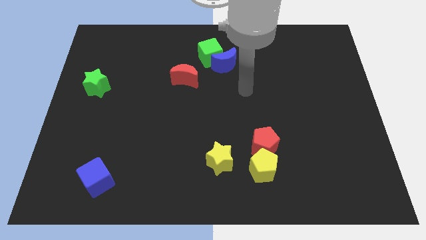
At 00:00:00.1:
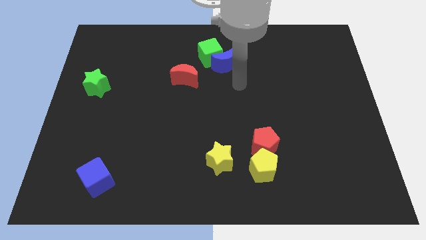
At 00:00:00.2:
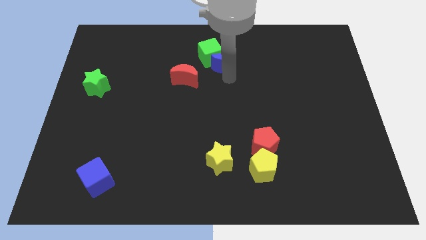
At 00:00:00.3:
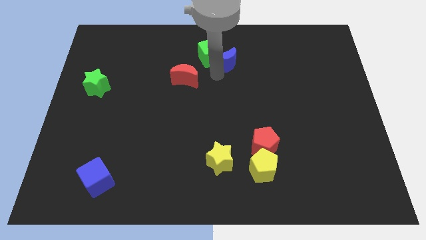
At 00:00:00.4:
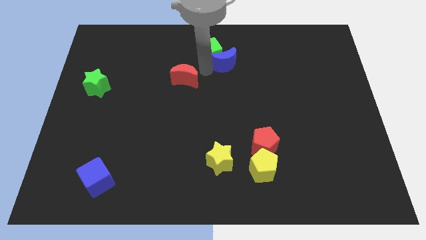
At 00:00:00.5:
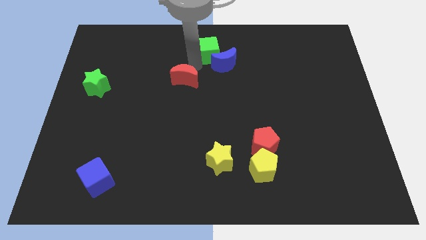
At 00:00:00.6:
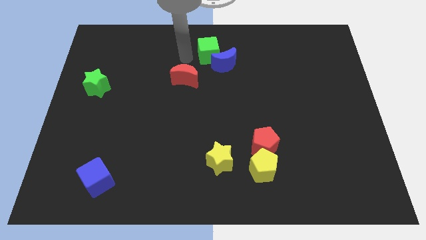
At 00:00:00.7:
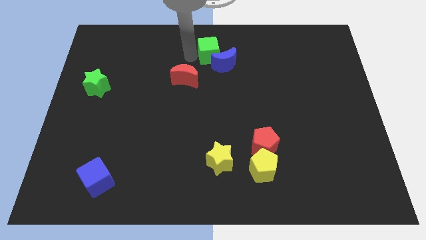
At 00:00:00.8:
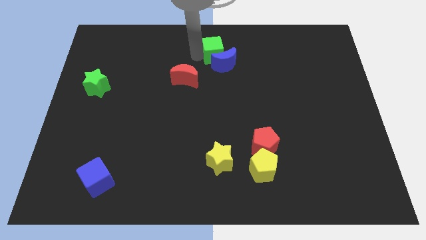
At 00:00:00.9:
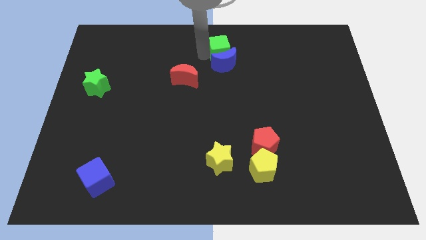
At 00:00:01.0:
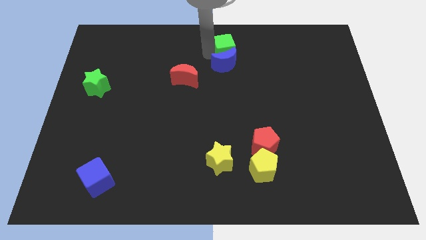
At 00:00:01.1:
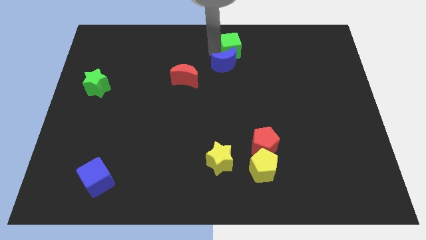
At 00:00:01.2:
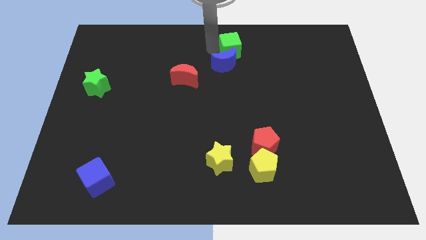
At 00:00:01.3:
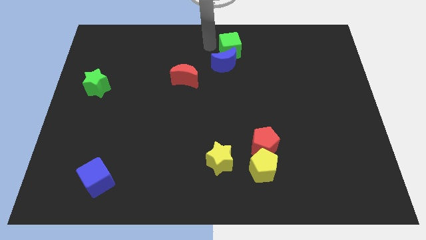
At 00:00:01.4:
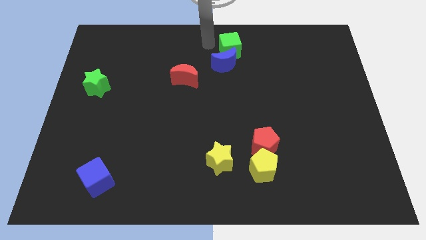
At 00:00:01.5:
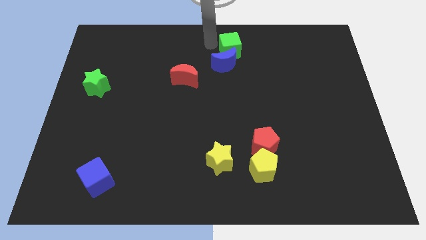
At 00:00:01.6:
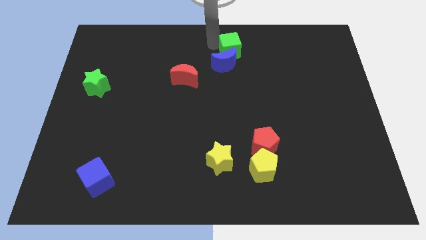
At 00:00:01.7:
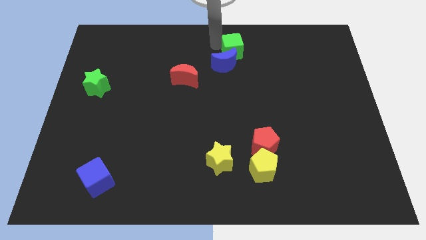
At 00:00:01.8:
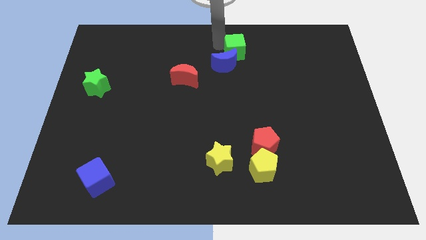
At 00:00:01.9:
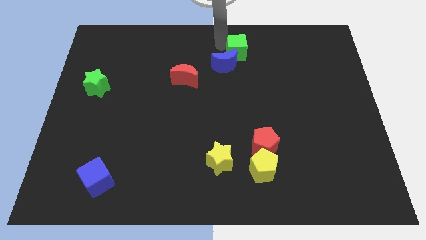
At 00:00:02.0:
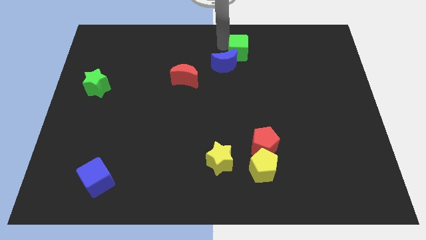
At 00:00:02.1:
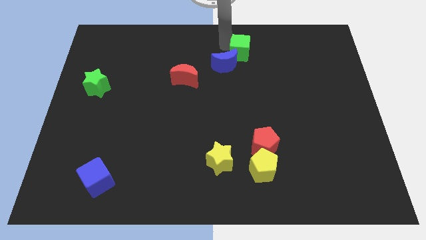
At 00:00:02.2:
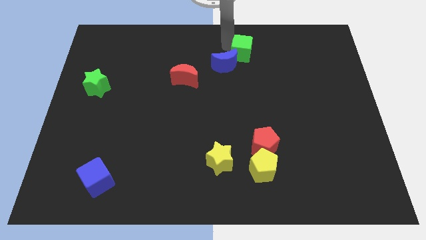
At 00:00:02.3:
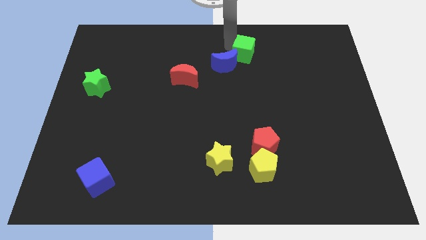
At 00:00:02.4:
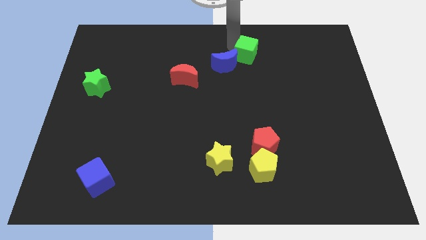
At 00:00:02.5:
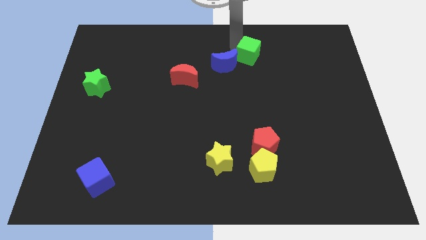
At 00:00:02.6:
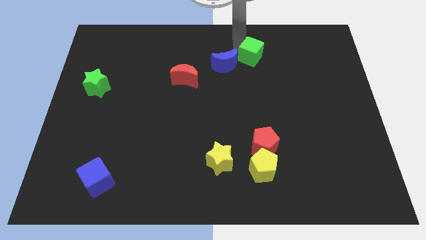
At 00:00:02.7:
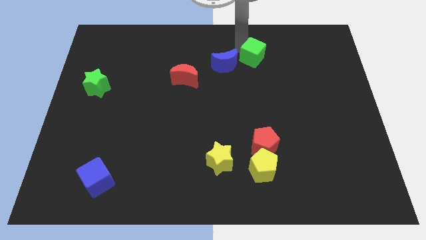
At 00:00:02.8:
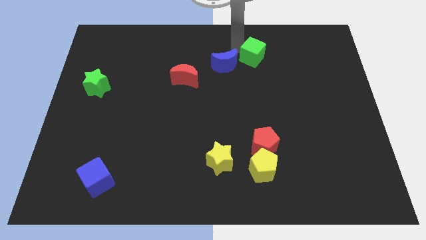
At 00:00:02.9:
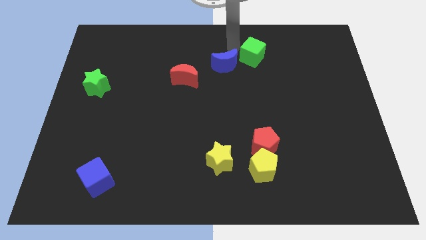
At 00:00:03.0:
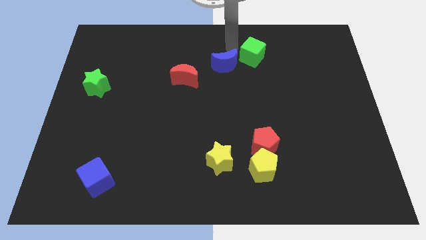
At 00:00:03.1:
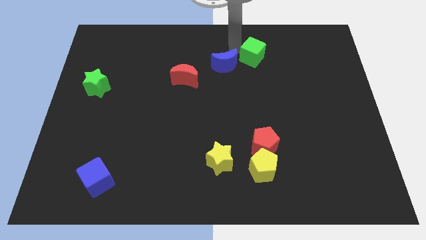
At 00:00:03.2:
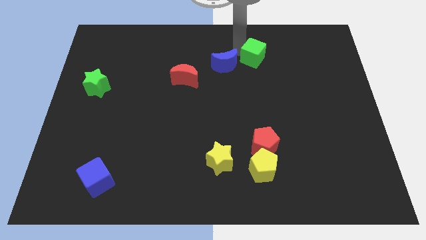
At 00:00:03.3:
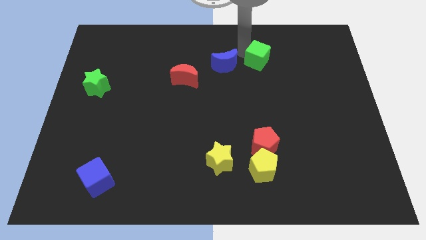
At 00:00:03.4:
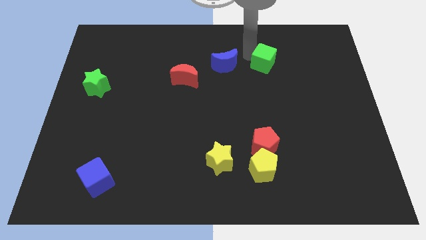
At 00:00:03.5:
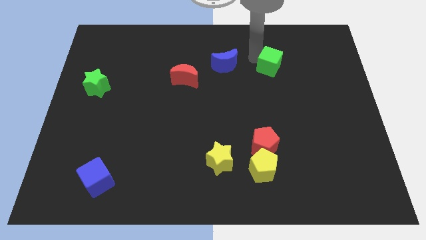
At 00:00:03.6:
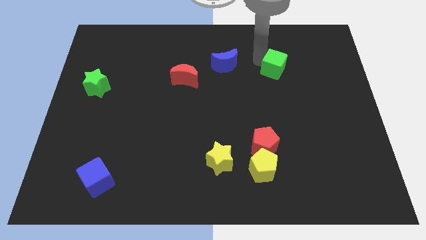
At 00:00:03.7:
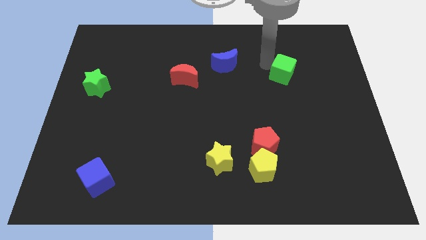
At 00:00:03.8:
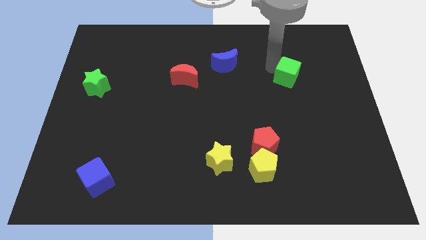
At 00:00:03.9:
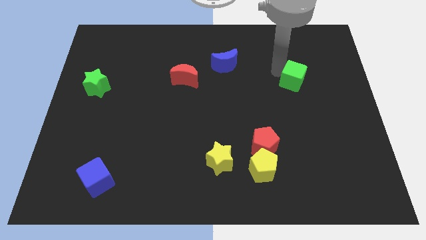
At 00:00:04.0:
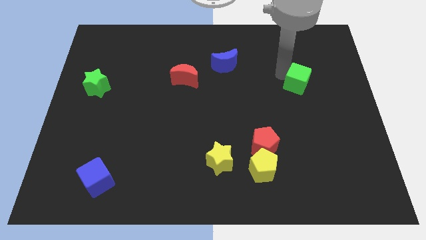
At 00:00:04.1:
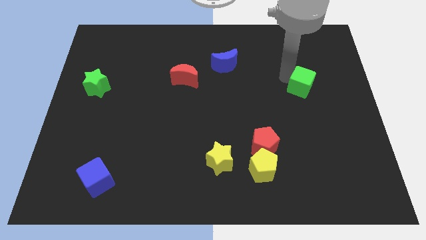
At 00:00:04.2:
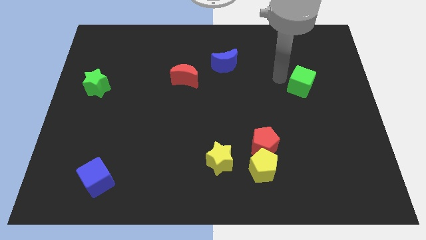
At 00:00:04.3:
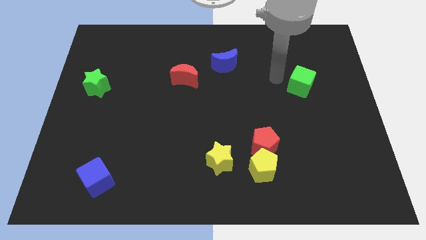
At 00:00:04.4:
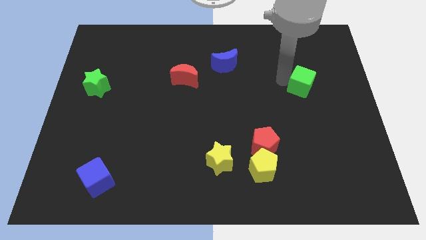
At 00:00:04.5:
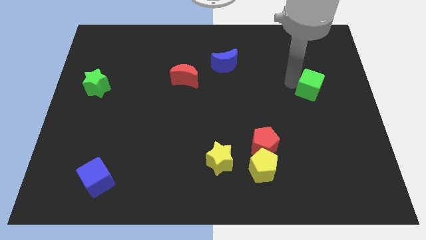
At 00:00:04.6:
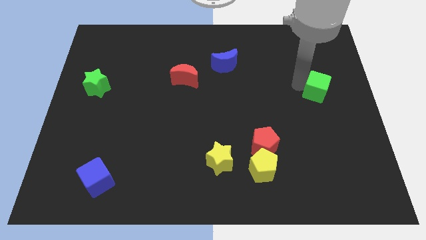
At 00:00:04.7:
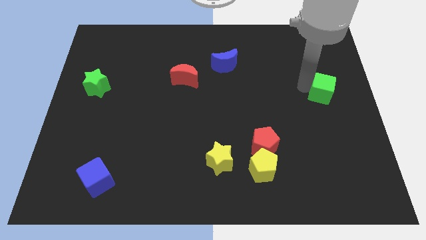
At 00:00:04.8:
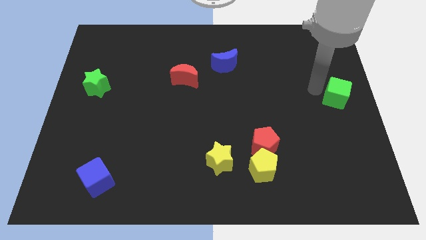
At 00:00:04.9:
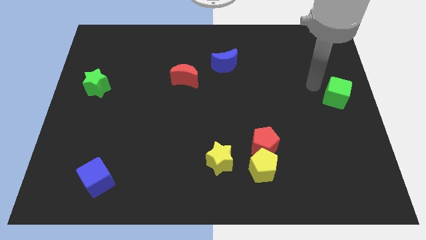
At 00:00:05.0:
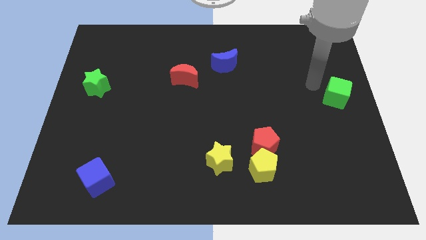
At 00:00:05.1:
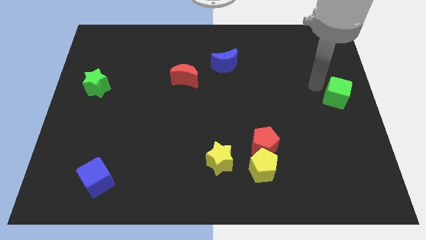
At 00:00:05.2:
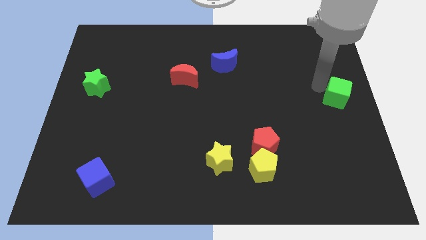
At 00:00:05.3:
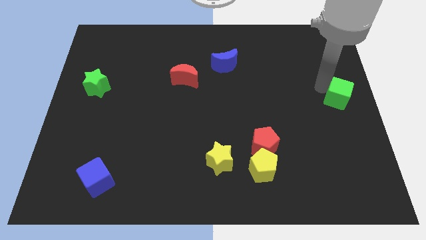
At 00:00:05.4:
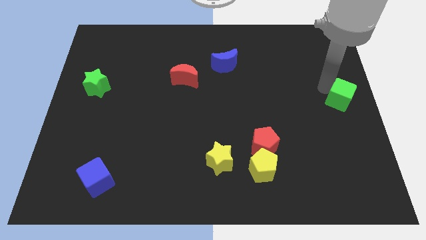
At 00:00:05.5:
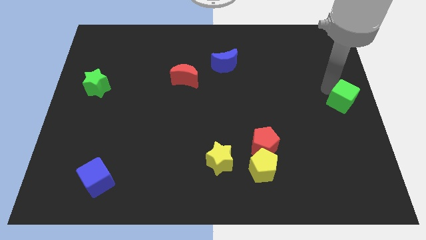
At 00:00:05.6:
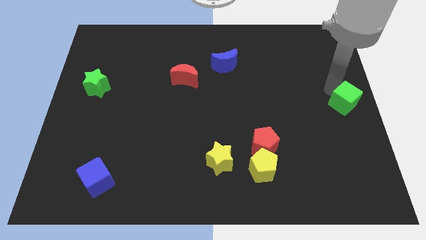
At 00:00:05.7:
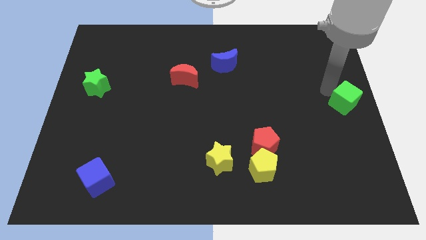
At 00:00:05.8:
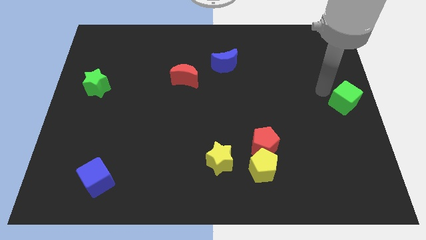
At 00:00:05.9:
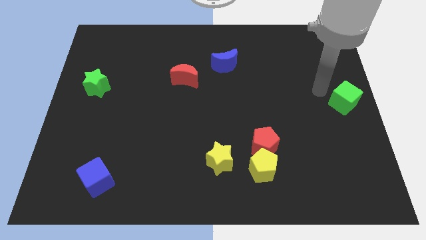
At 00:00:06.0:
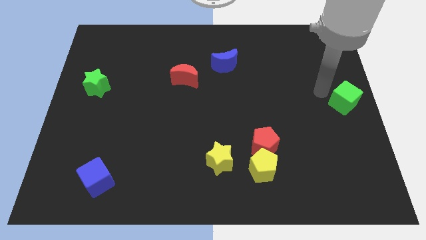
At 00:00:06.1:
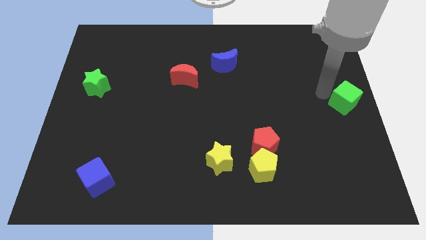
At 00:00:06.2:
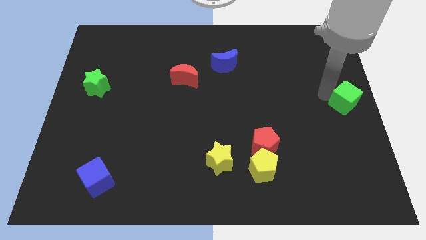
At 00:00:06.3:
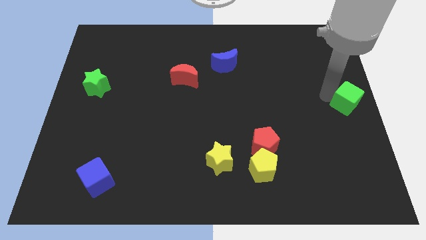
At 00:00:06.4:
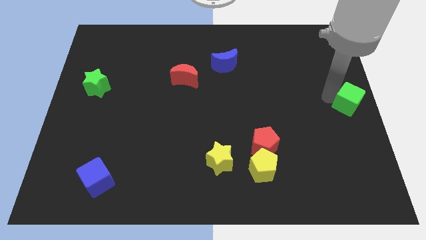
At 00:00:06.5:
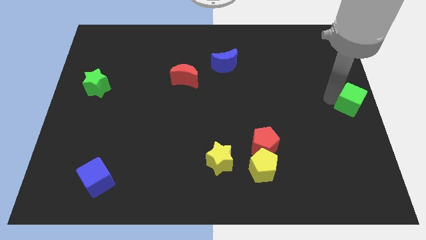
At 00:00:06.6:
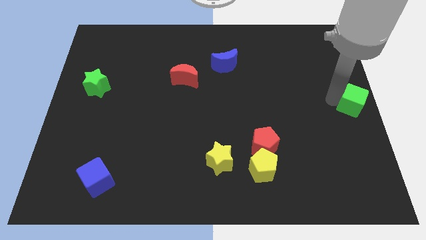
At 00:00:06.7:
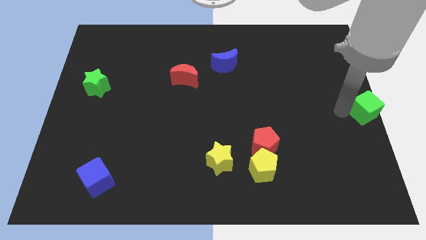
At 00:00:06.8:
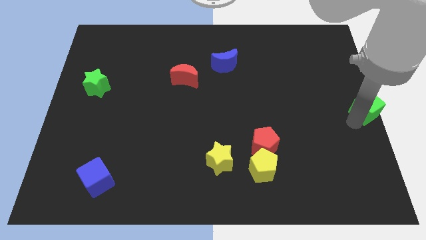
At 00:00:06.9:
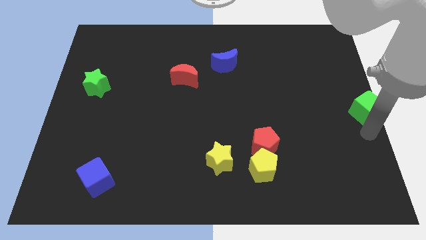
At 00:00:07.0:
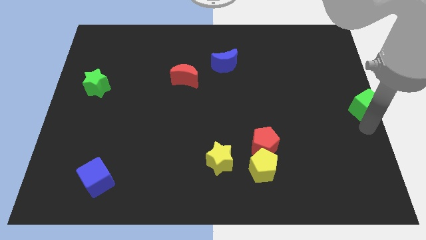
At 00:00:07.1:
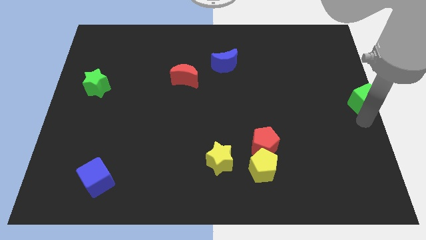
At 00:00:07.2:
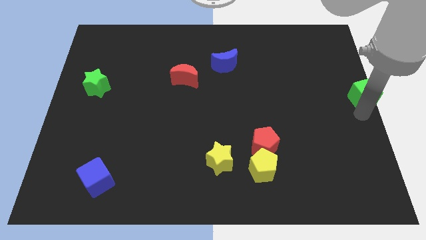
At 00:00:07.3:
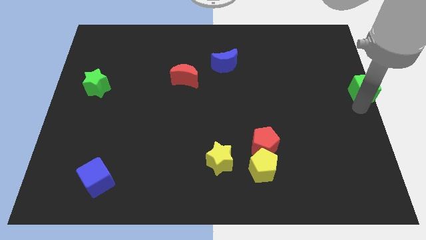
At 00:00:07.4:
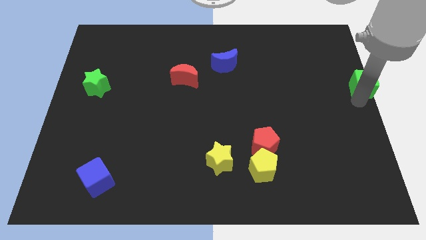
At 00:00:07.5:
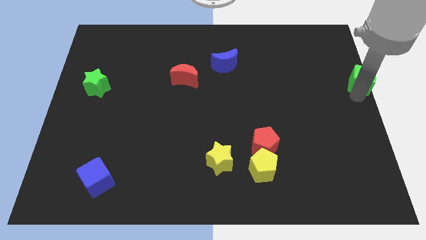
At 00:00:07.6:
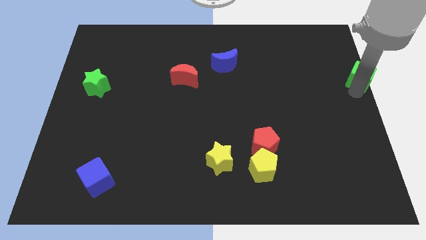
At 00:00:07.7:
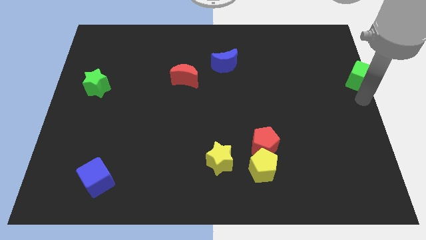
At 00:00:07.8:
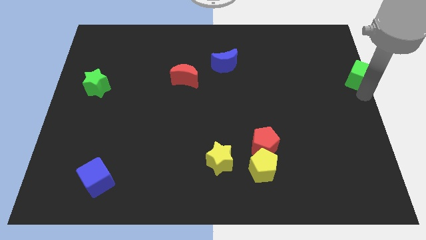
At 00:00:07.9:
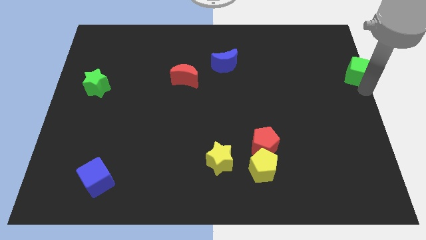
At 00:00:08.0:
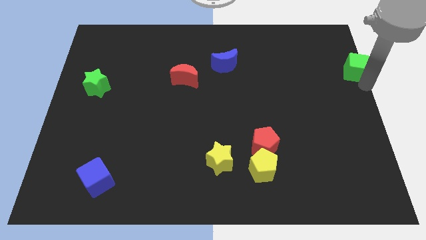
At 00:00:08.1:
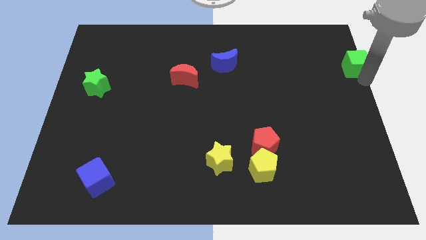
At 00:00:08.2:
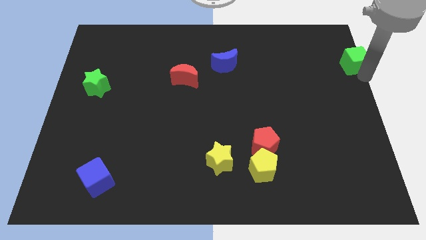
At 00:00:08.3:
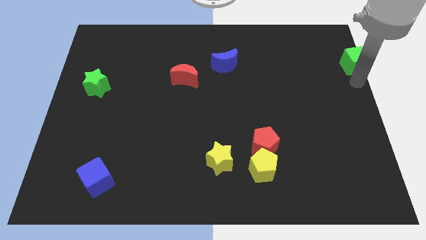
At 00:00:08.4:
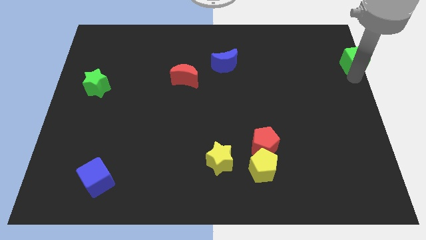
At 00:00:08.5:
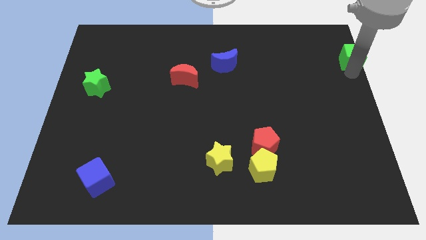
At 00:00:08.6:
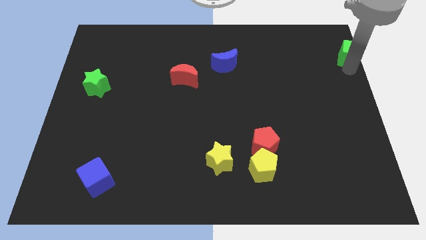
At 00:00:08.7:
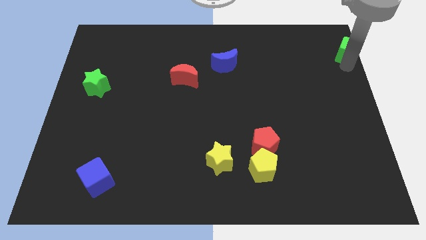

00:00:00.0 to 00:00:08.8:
move the green cube to the top right corner
